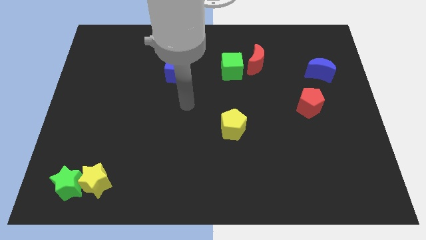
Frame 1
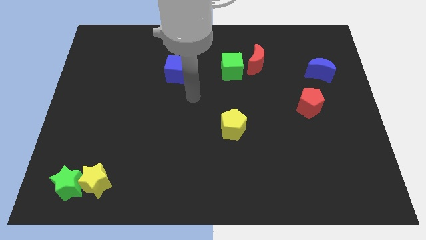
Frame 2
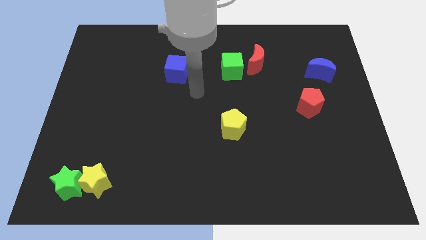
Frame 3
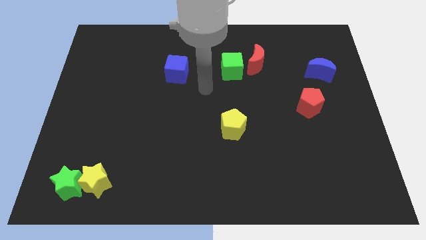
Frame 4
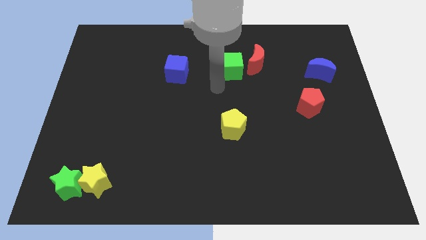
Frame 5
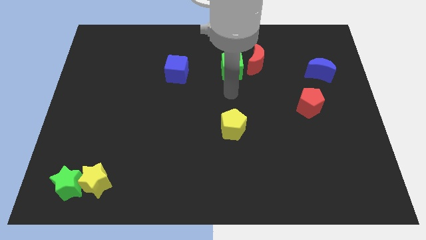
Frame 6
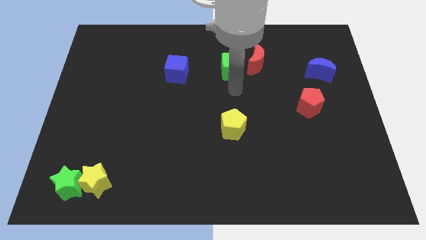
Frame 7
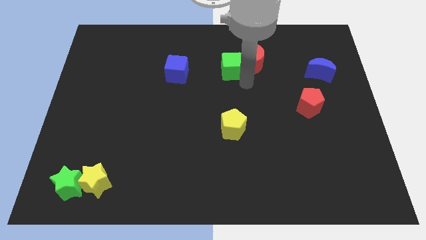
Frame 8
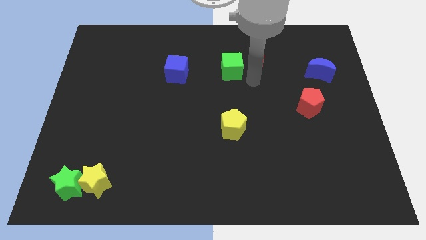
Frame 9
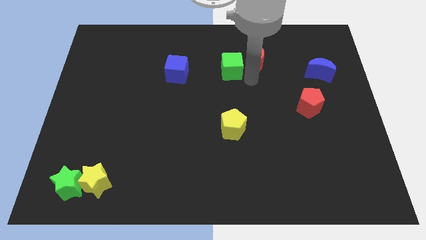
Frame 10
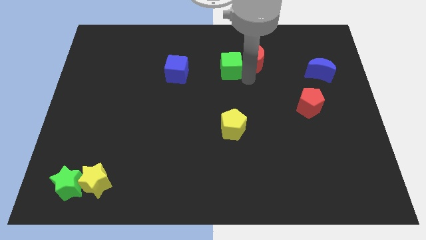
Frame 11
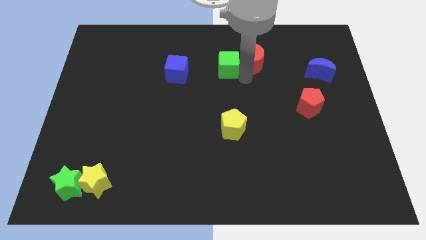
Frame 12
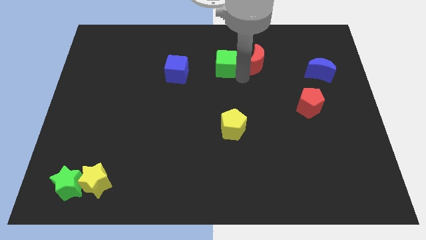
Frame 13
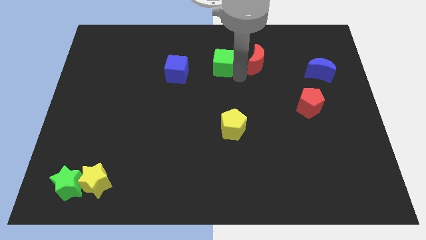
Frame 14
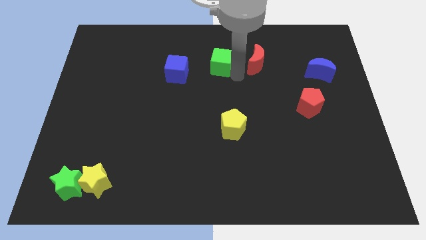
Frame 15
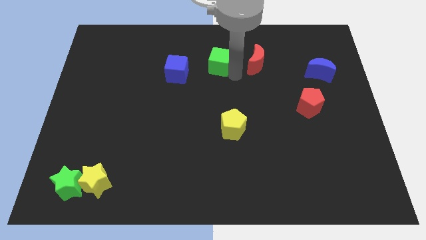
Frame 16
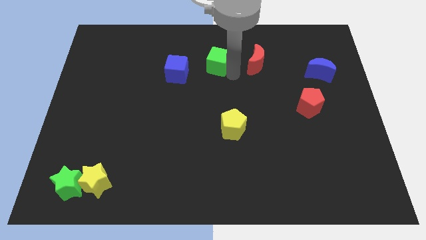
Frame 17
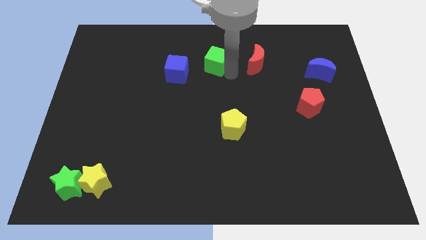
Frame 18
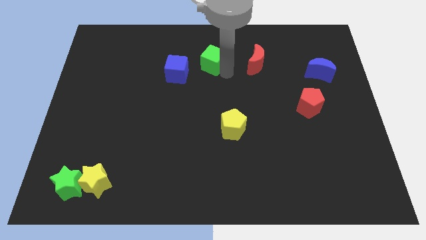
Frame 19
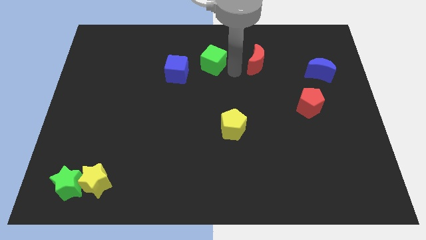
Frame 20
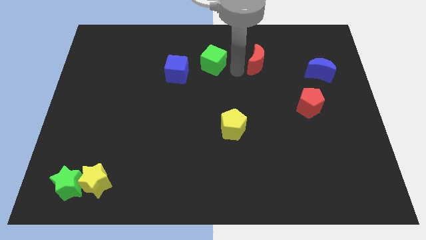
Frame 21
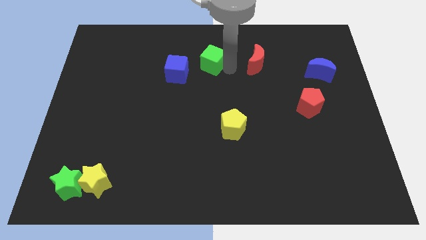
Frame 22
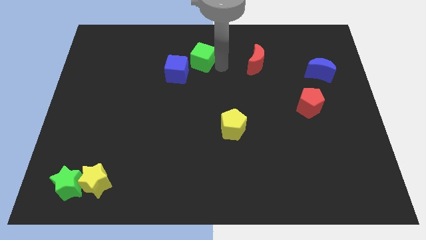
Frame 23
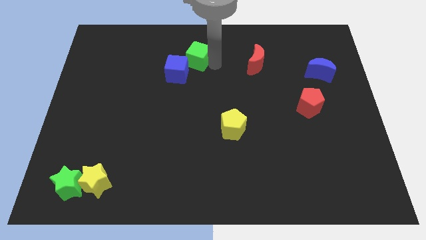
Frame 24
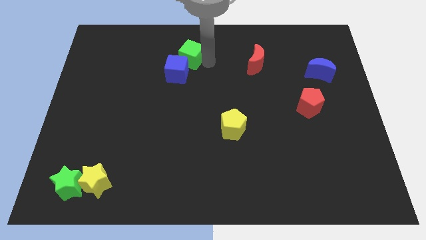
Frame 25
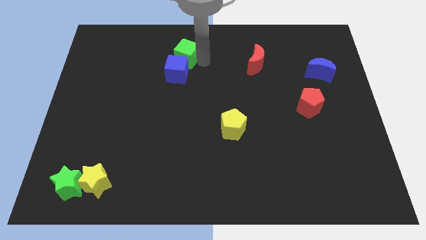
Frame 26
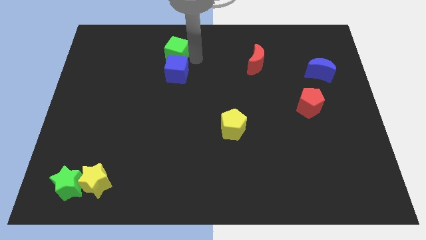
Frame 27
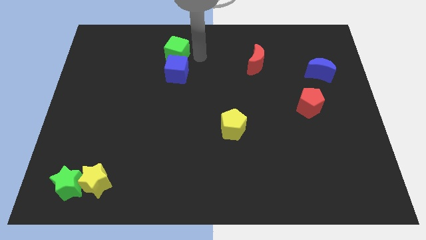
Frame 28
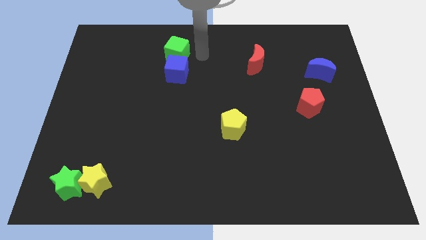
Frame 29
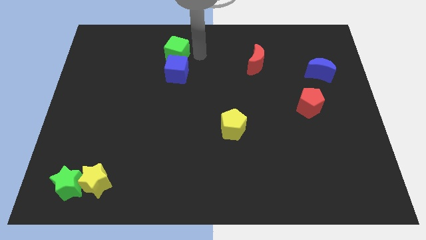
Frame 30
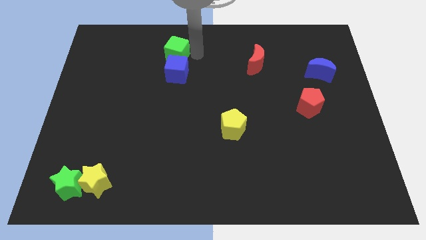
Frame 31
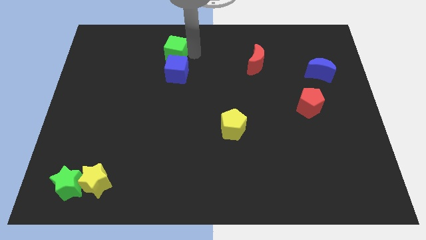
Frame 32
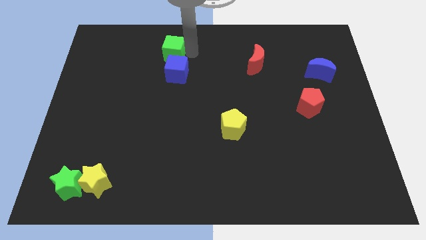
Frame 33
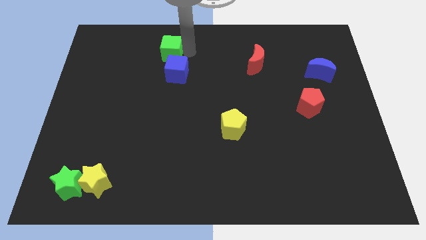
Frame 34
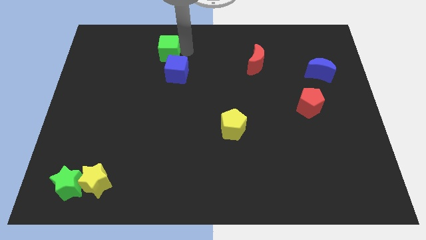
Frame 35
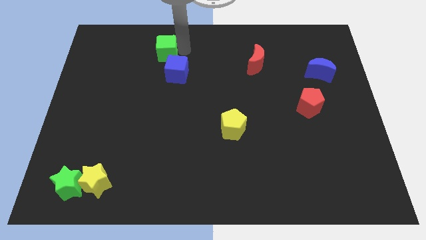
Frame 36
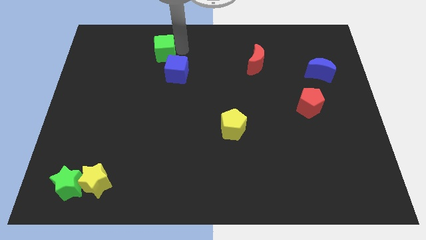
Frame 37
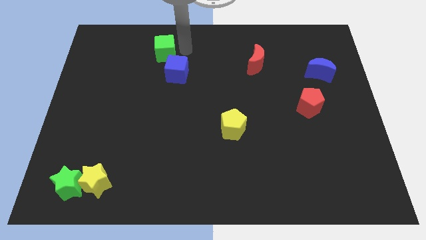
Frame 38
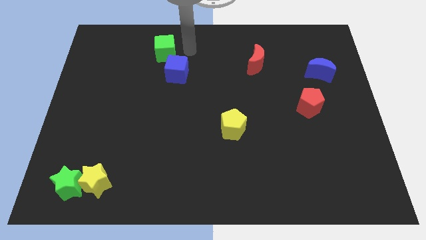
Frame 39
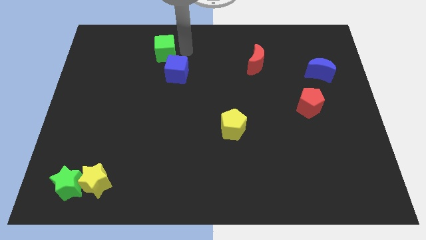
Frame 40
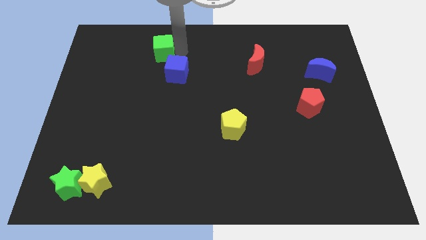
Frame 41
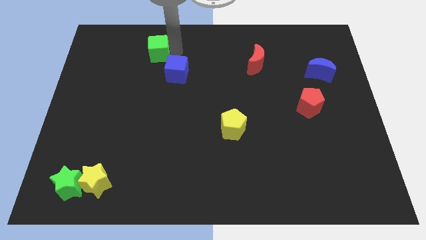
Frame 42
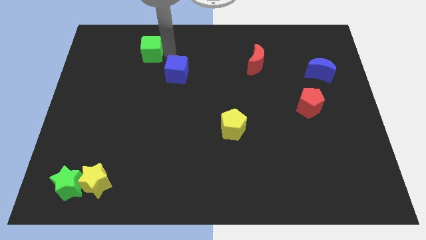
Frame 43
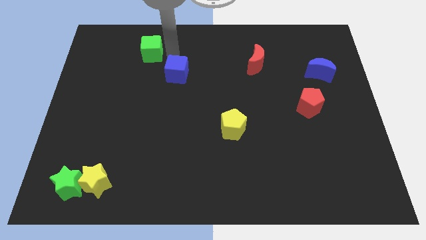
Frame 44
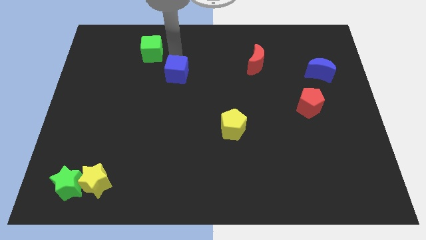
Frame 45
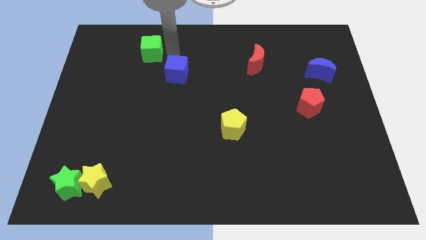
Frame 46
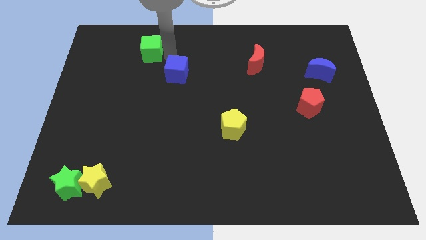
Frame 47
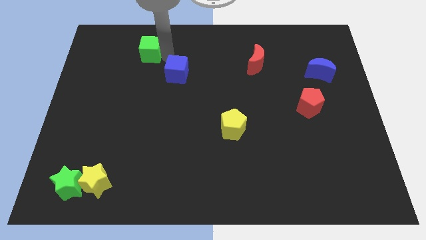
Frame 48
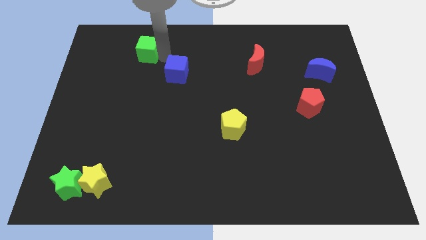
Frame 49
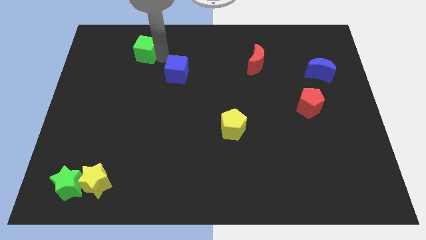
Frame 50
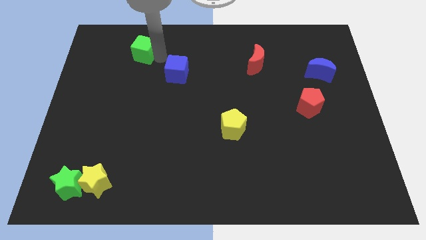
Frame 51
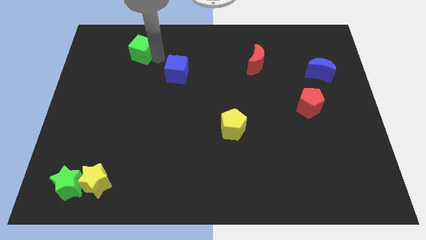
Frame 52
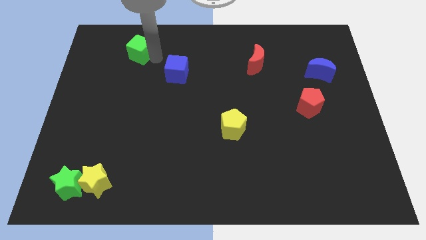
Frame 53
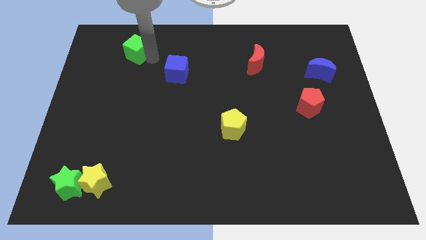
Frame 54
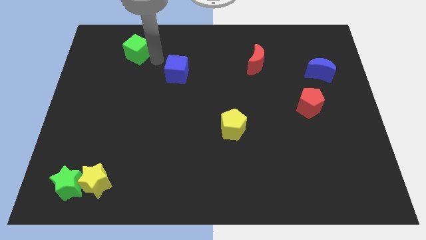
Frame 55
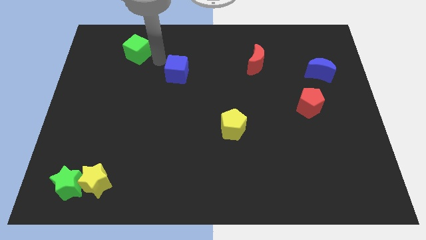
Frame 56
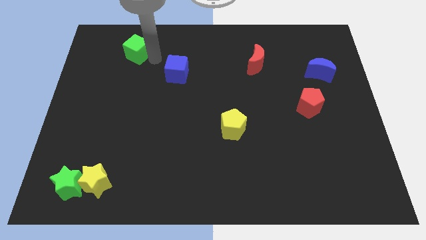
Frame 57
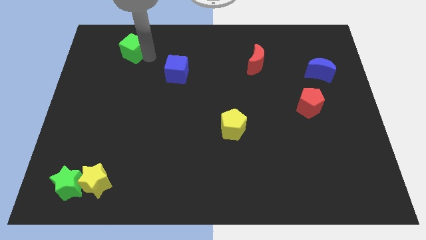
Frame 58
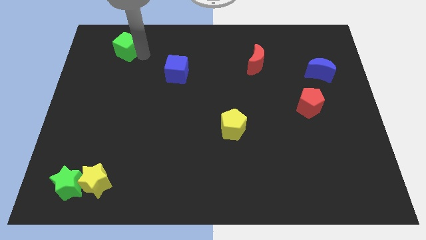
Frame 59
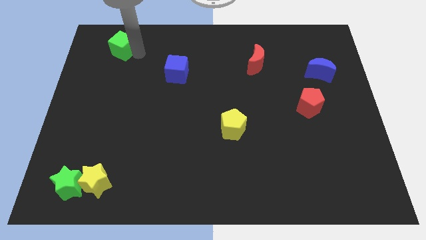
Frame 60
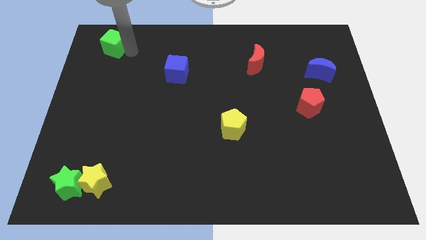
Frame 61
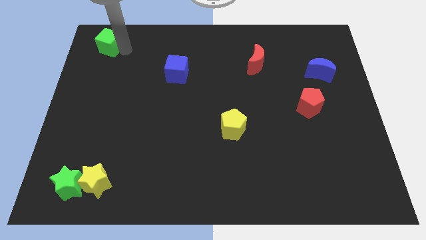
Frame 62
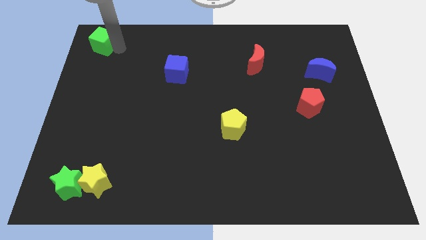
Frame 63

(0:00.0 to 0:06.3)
slide the green cube to the top left corner

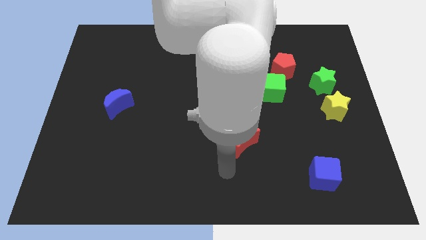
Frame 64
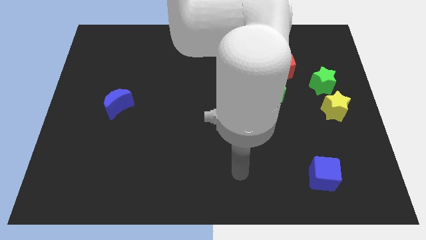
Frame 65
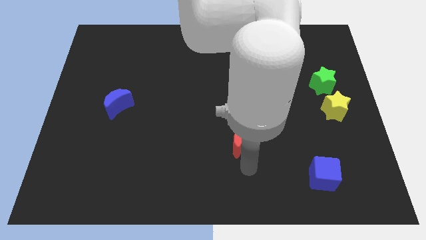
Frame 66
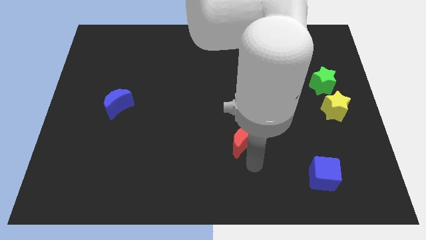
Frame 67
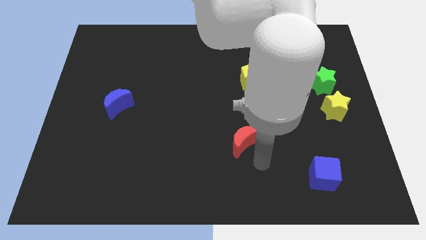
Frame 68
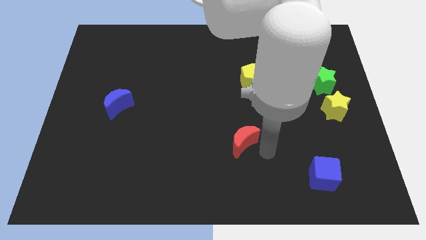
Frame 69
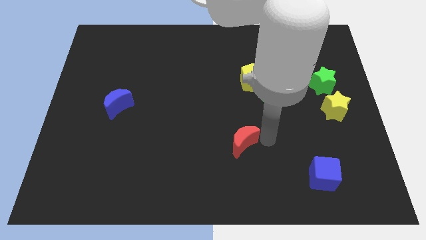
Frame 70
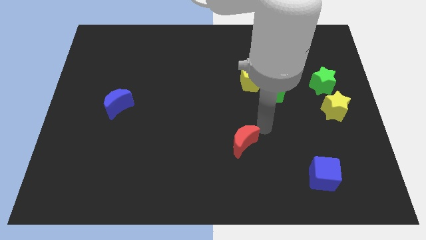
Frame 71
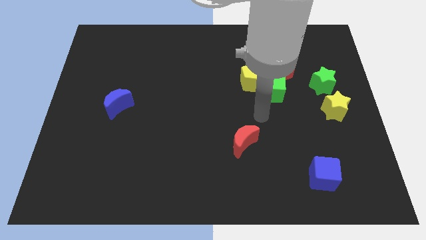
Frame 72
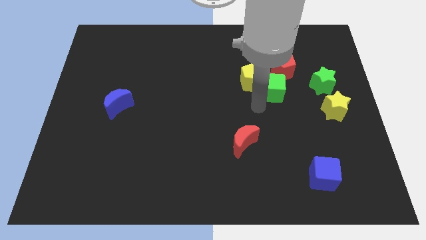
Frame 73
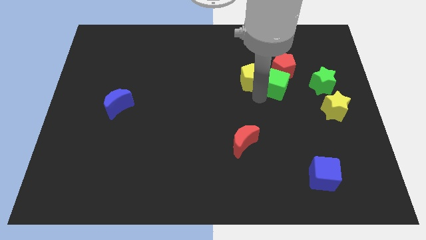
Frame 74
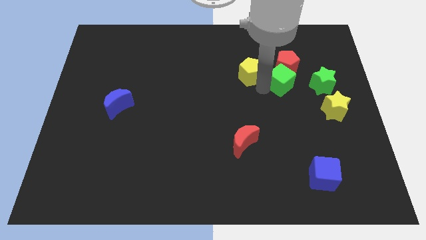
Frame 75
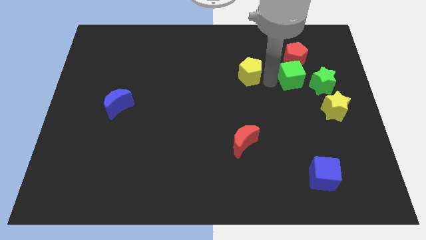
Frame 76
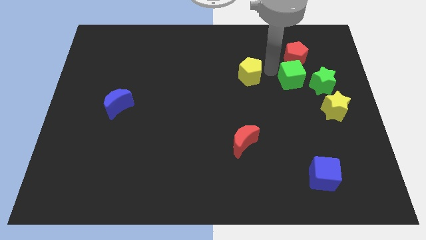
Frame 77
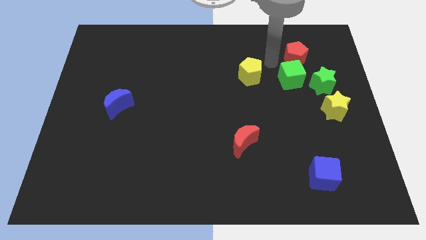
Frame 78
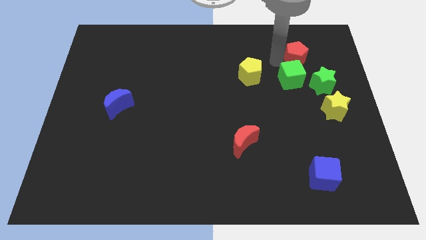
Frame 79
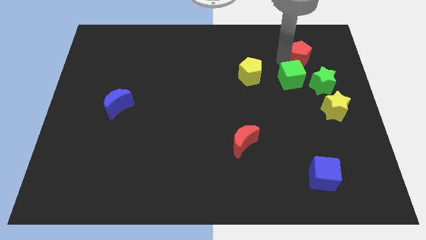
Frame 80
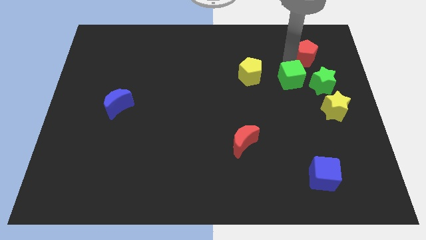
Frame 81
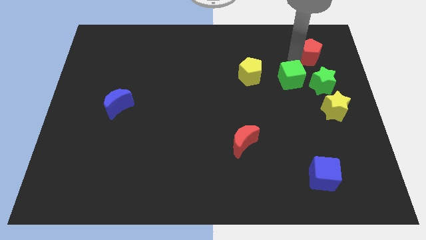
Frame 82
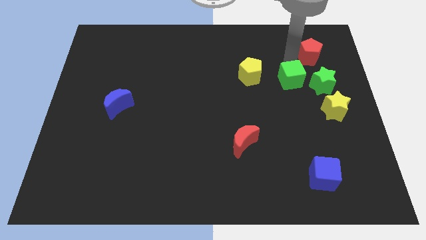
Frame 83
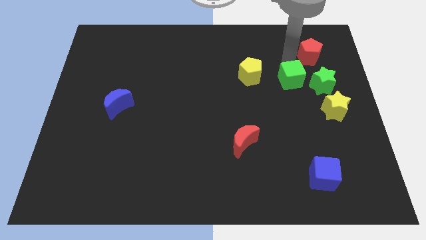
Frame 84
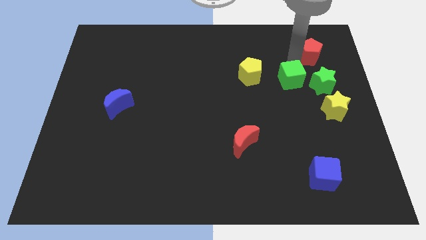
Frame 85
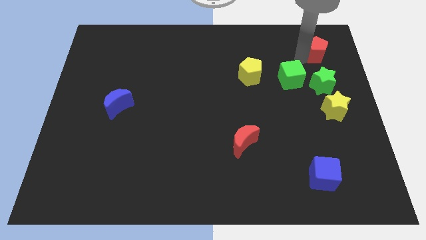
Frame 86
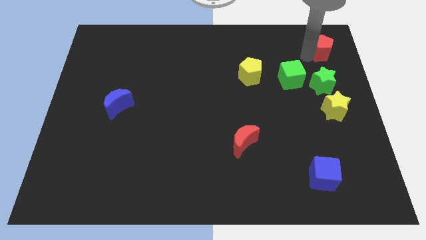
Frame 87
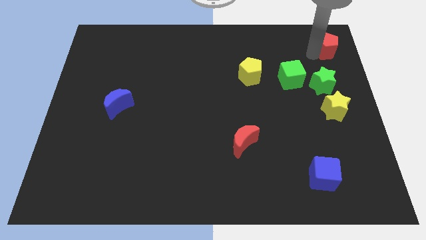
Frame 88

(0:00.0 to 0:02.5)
push the red pentagon to the upper right corner
